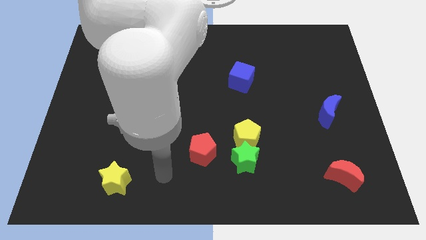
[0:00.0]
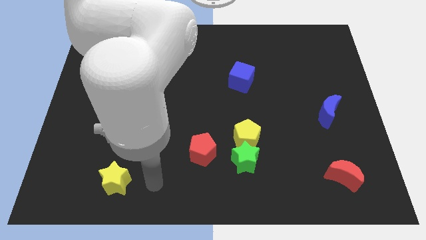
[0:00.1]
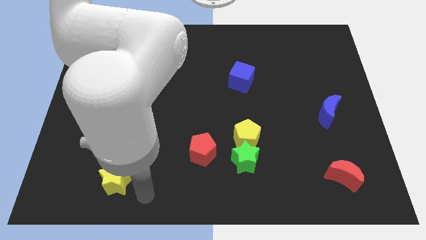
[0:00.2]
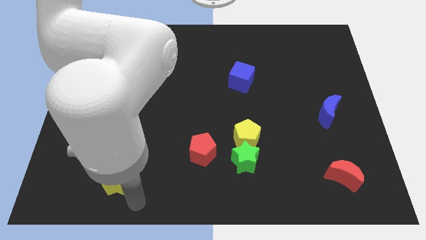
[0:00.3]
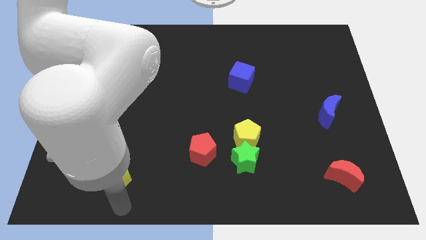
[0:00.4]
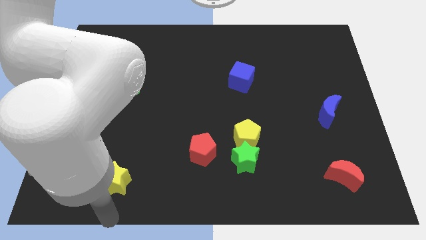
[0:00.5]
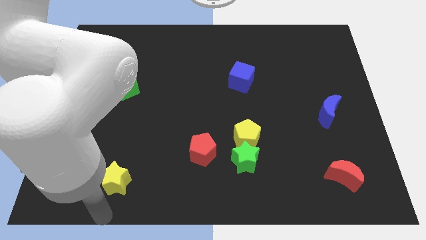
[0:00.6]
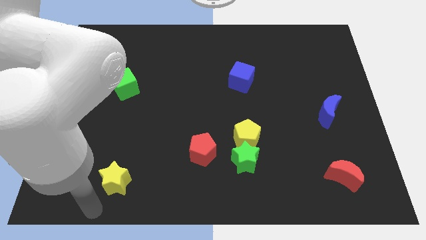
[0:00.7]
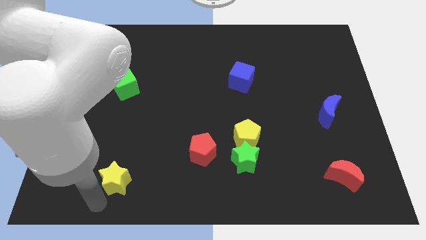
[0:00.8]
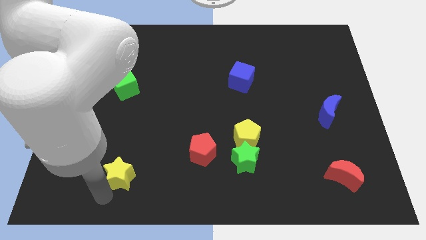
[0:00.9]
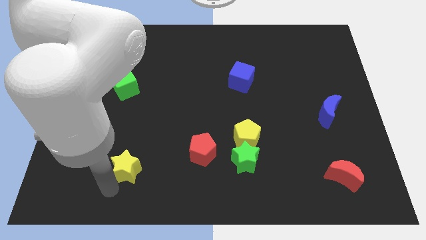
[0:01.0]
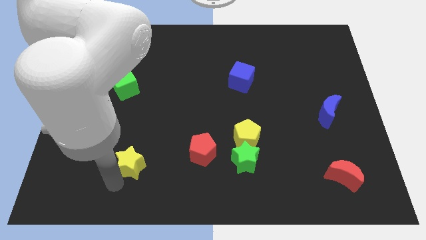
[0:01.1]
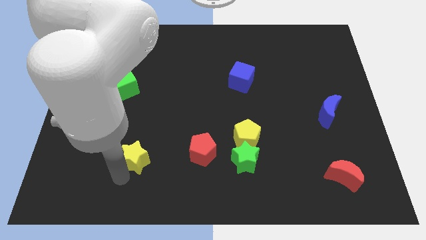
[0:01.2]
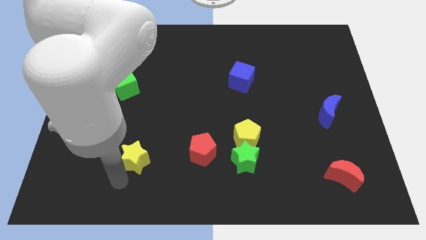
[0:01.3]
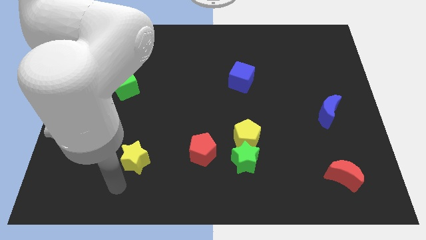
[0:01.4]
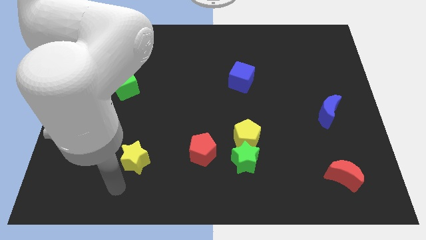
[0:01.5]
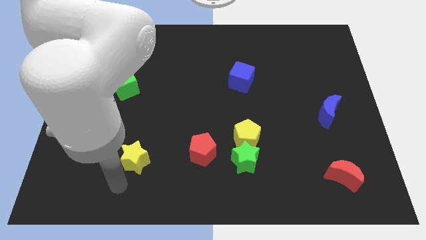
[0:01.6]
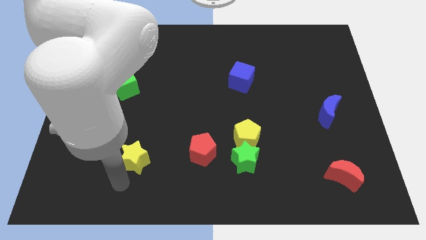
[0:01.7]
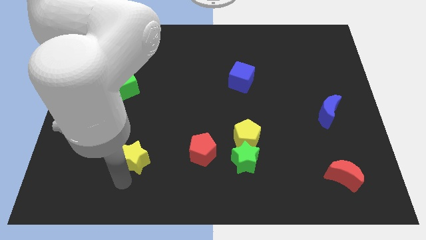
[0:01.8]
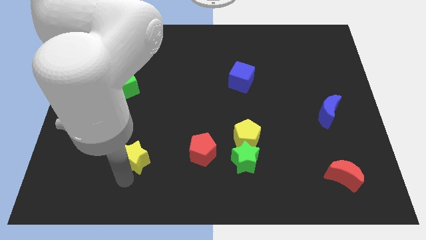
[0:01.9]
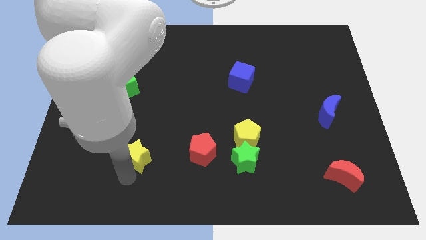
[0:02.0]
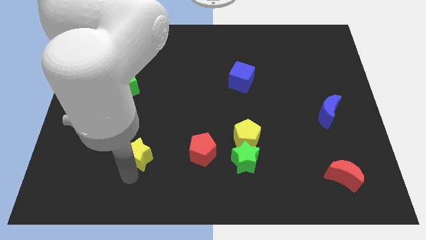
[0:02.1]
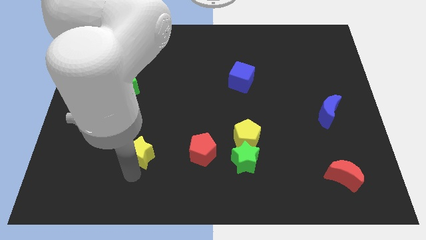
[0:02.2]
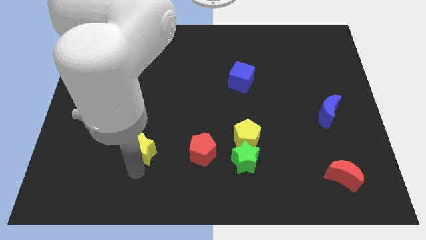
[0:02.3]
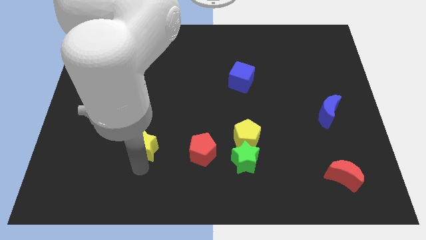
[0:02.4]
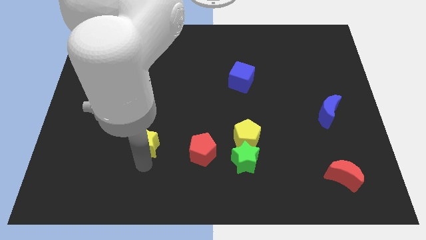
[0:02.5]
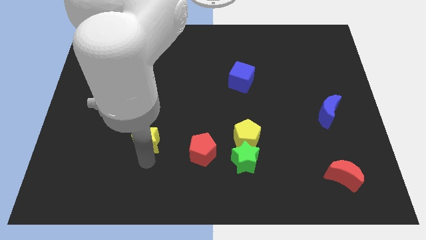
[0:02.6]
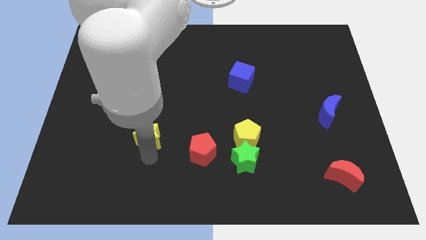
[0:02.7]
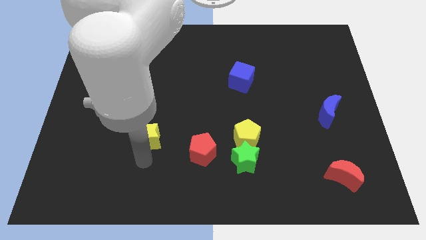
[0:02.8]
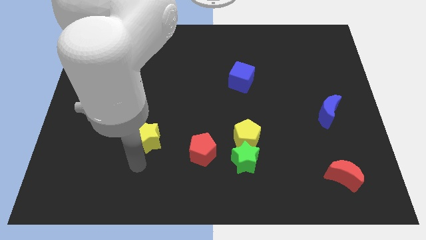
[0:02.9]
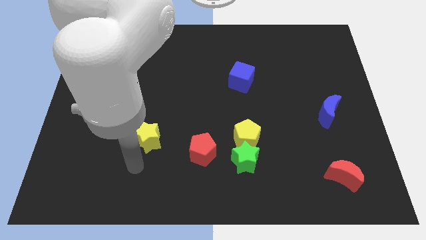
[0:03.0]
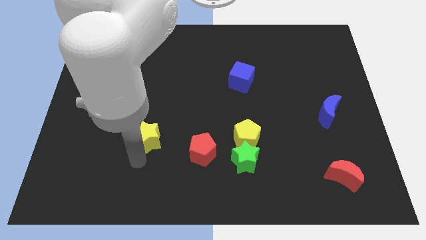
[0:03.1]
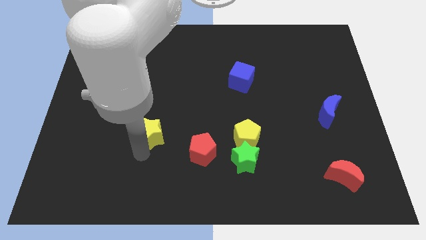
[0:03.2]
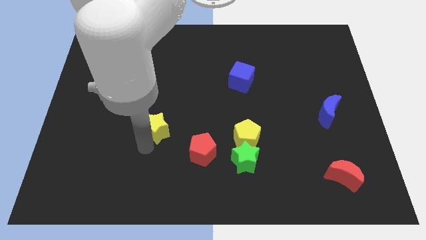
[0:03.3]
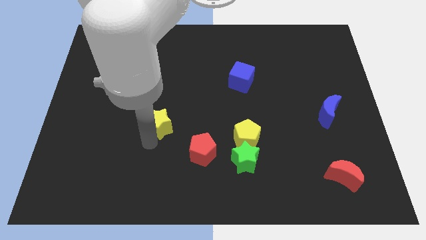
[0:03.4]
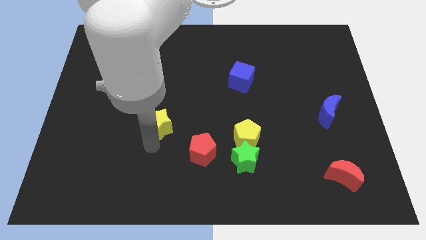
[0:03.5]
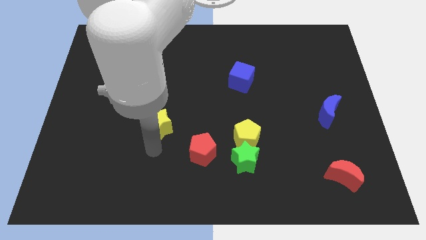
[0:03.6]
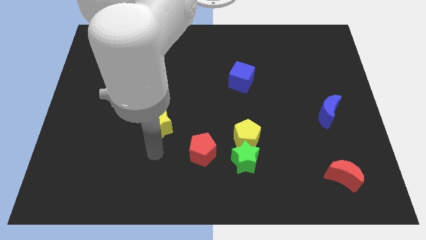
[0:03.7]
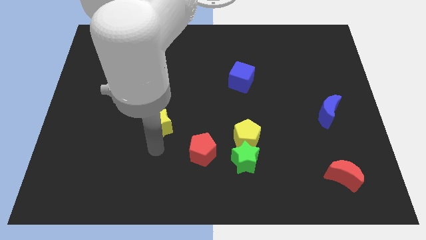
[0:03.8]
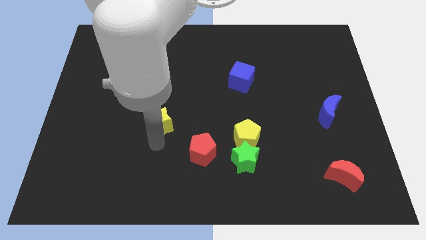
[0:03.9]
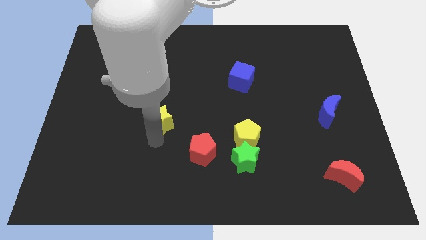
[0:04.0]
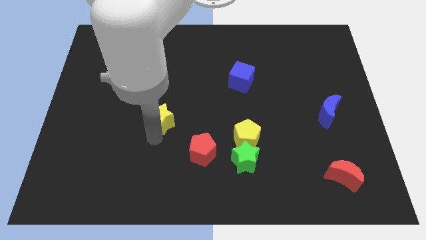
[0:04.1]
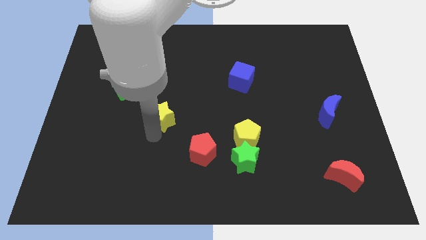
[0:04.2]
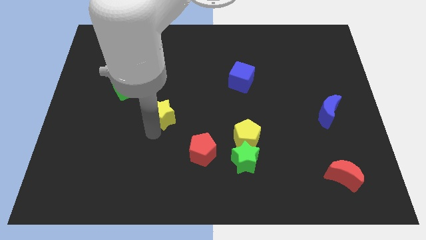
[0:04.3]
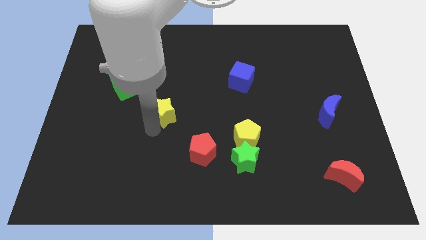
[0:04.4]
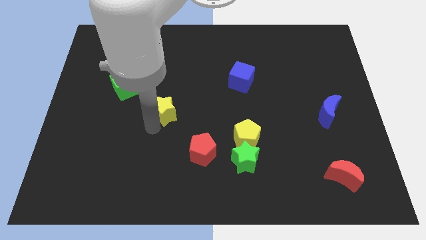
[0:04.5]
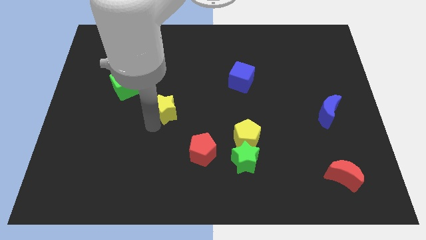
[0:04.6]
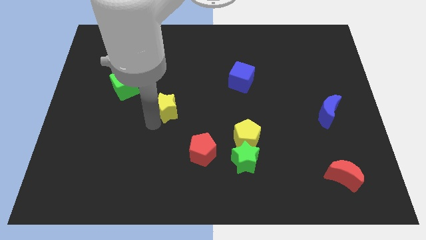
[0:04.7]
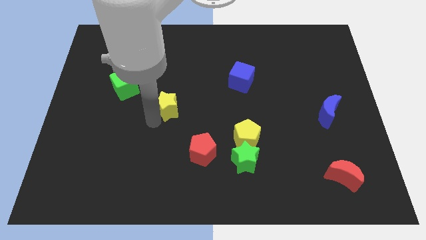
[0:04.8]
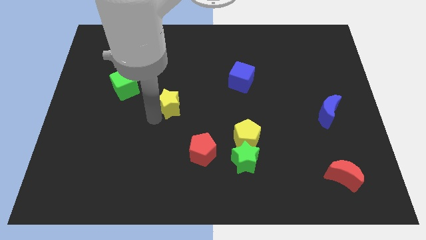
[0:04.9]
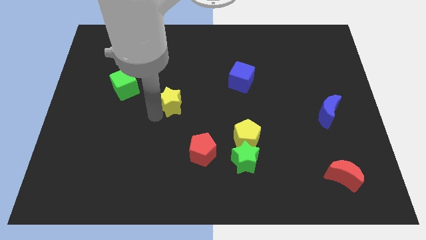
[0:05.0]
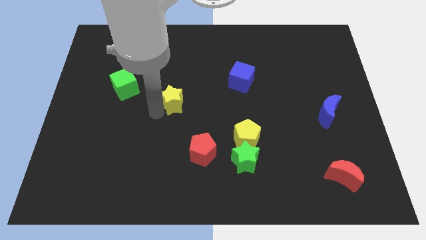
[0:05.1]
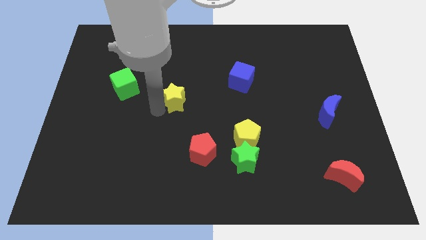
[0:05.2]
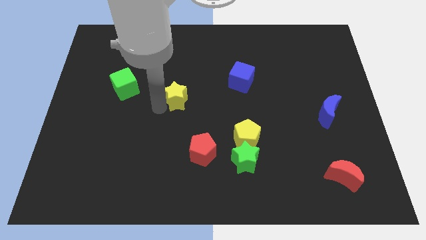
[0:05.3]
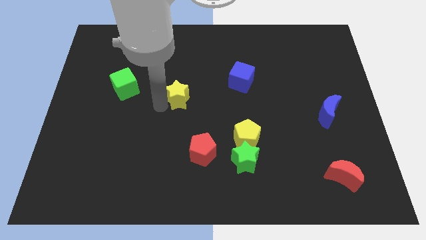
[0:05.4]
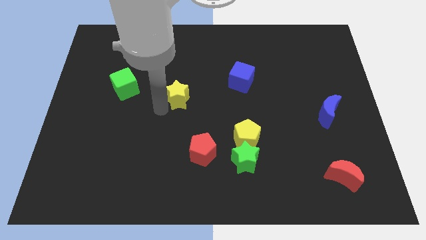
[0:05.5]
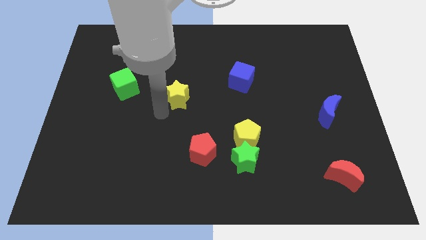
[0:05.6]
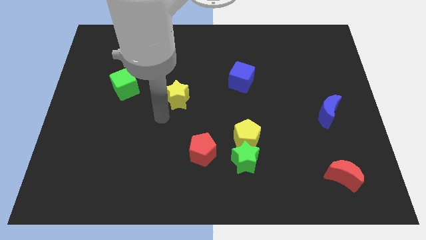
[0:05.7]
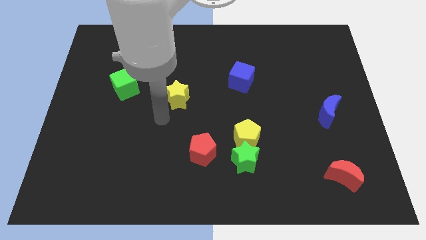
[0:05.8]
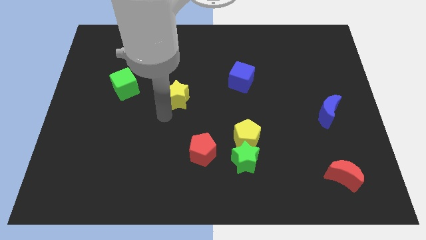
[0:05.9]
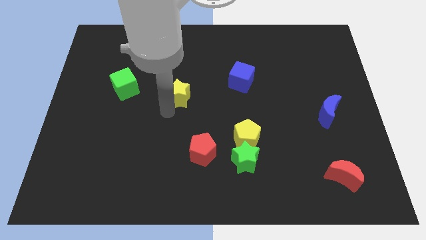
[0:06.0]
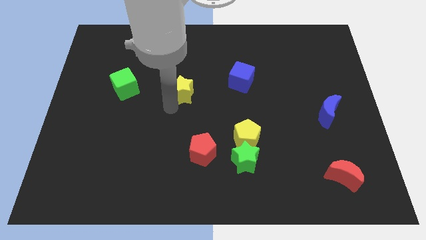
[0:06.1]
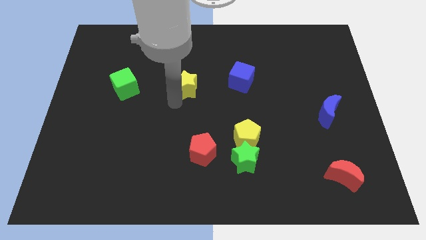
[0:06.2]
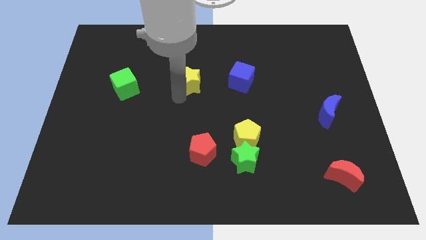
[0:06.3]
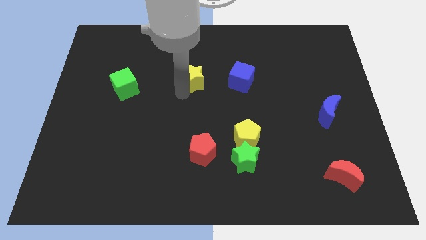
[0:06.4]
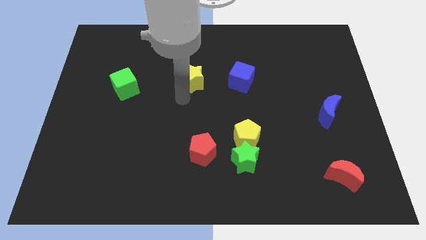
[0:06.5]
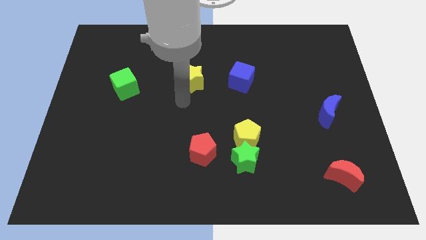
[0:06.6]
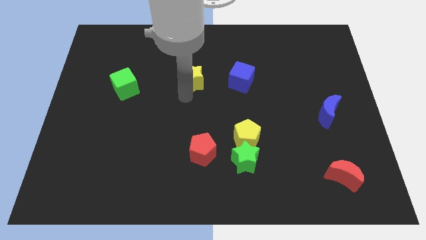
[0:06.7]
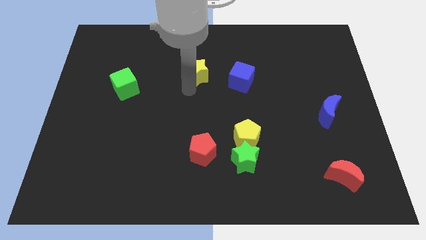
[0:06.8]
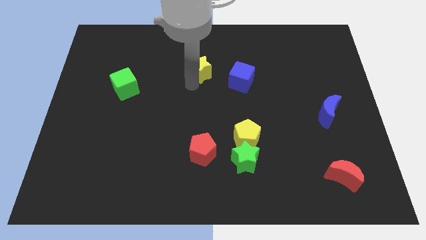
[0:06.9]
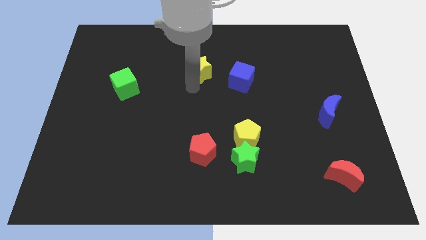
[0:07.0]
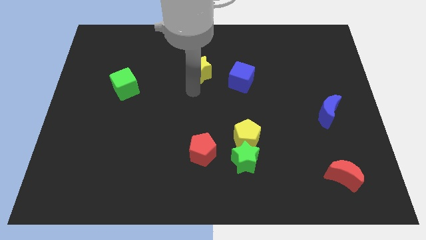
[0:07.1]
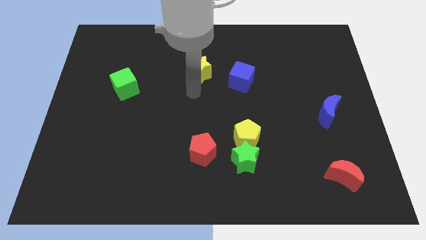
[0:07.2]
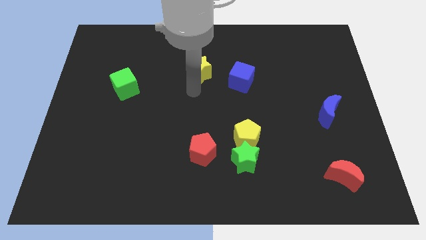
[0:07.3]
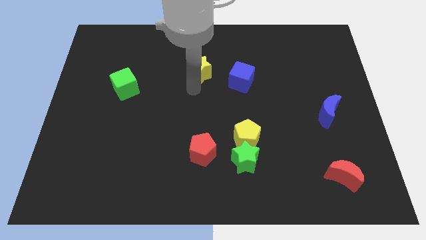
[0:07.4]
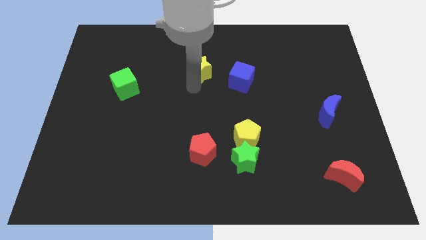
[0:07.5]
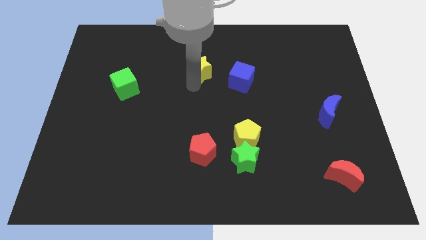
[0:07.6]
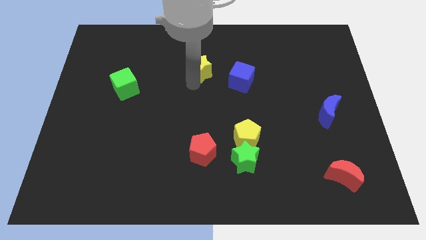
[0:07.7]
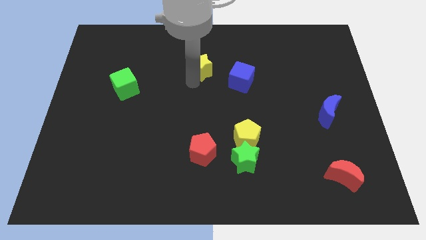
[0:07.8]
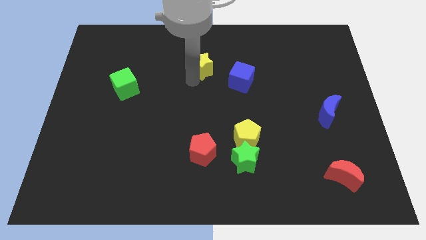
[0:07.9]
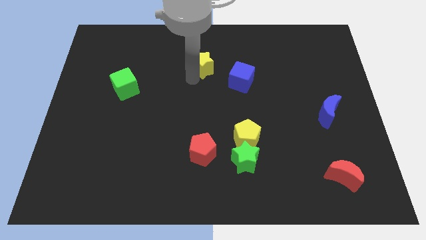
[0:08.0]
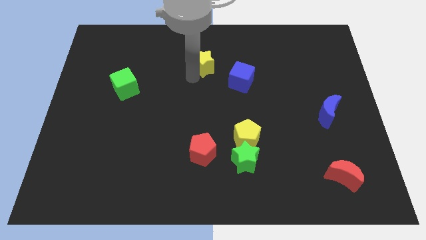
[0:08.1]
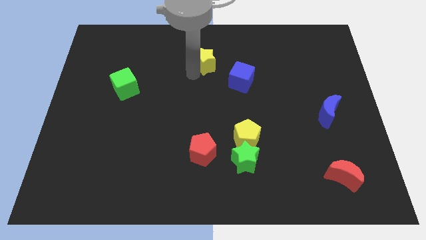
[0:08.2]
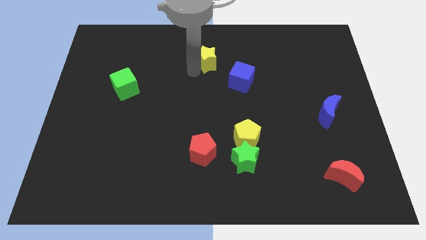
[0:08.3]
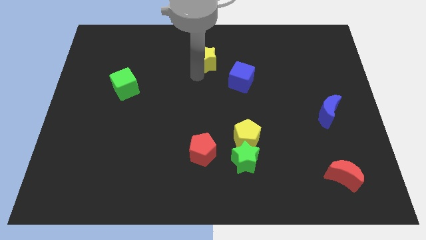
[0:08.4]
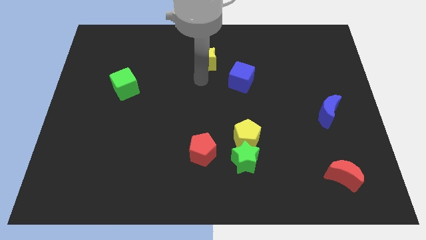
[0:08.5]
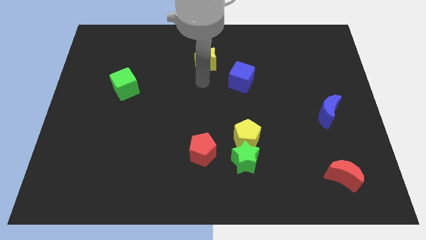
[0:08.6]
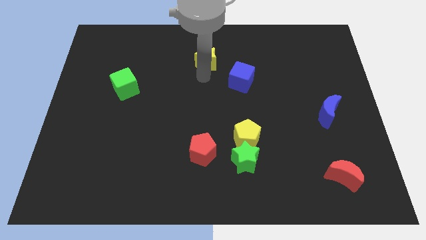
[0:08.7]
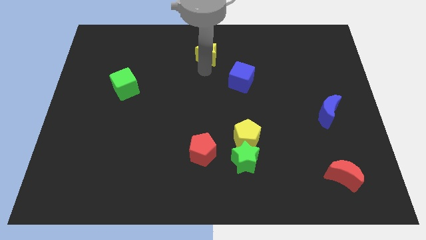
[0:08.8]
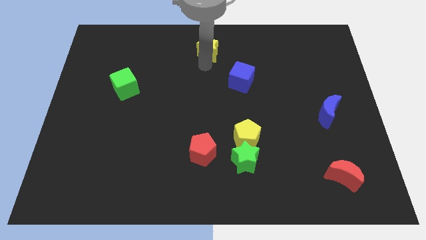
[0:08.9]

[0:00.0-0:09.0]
put the yellow star to the top
